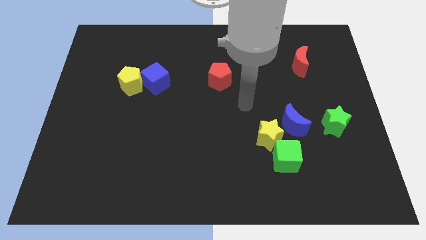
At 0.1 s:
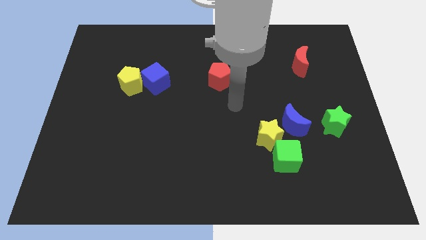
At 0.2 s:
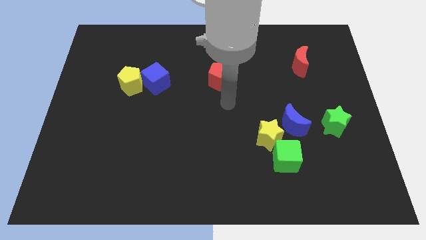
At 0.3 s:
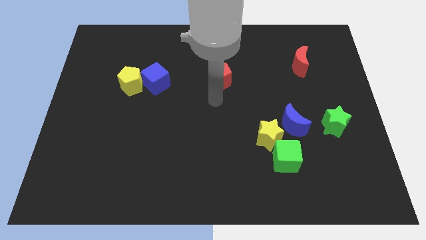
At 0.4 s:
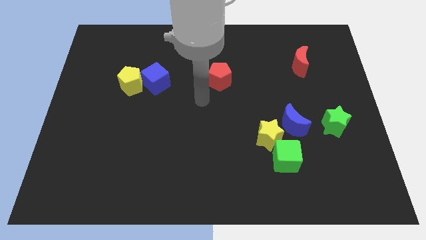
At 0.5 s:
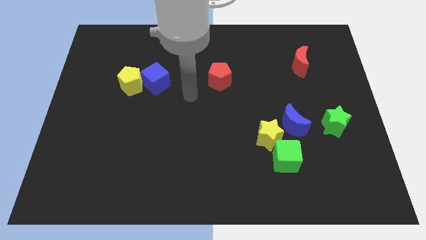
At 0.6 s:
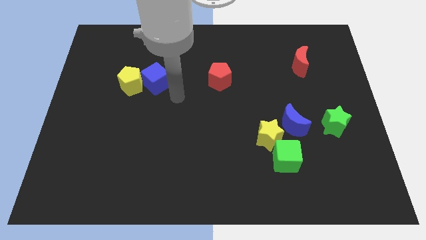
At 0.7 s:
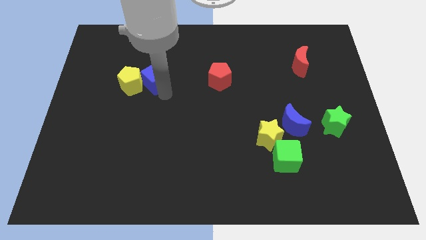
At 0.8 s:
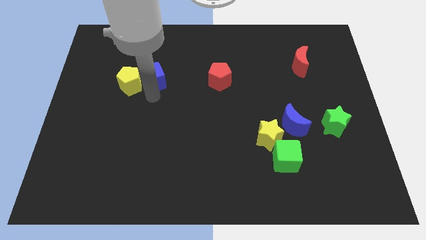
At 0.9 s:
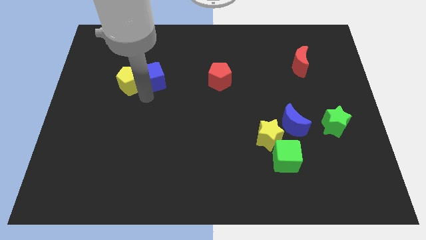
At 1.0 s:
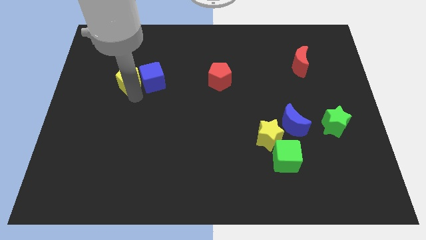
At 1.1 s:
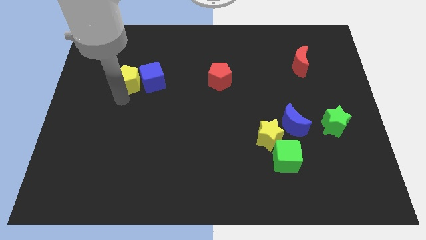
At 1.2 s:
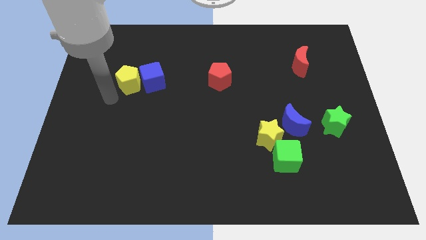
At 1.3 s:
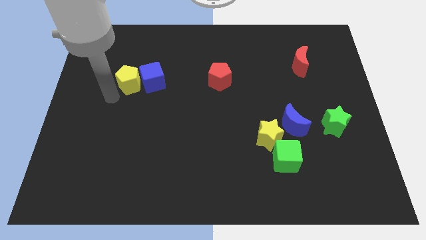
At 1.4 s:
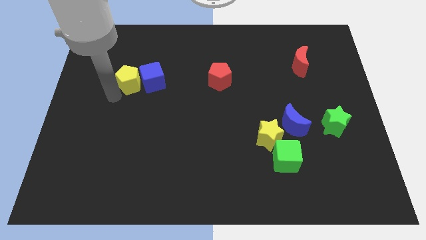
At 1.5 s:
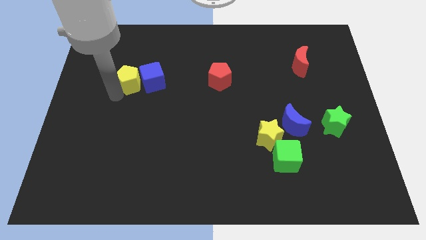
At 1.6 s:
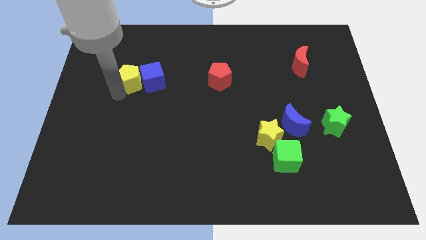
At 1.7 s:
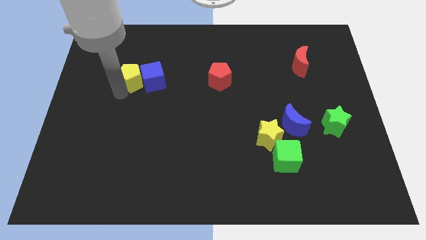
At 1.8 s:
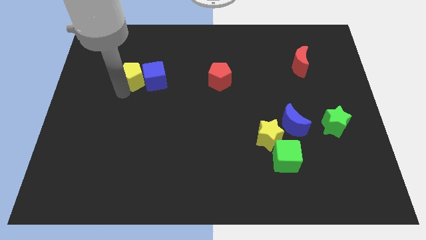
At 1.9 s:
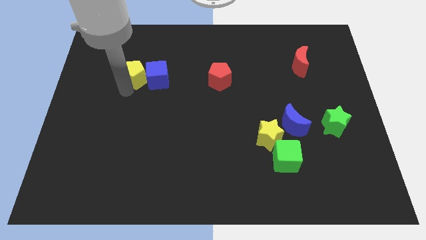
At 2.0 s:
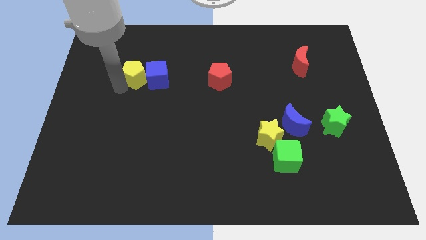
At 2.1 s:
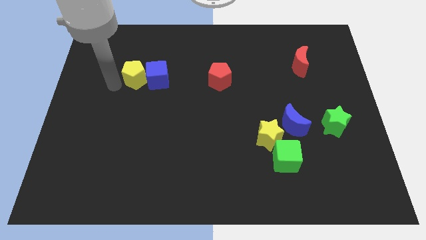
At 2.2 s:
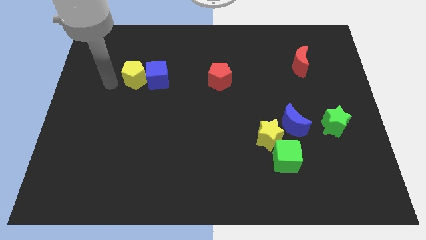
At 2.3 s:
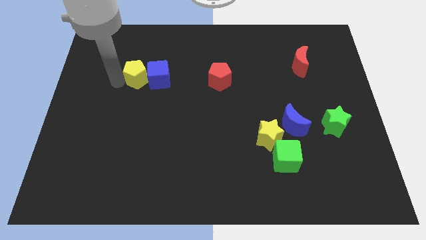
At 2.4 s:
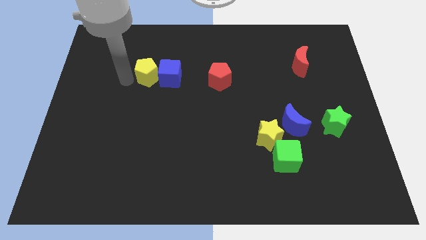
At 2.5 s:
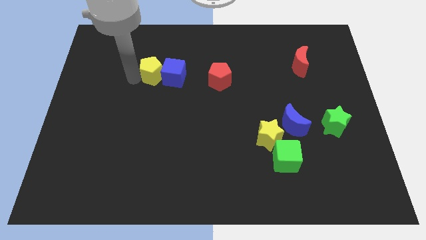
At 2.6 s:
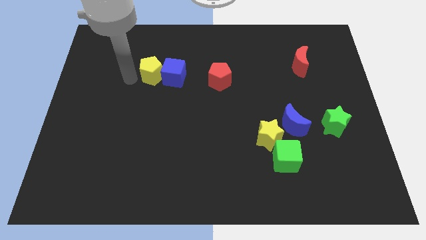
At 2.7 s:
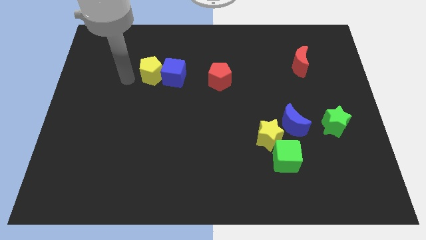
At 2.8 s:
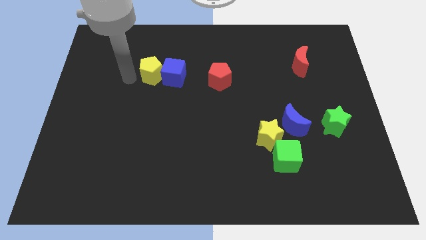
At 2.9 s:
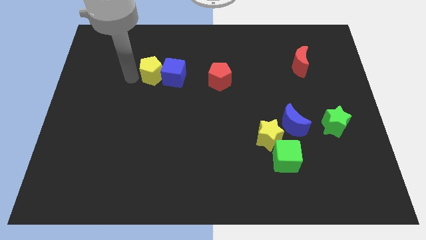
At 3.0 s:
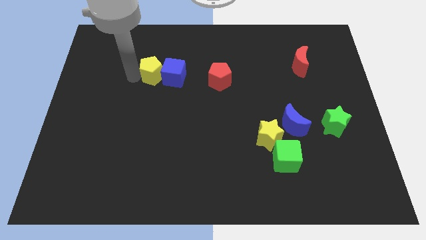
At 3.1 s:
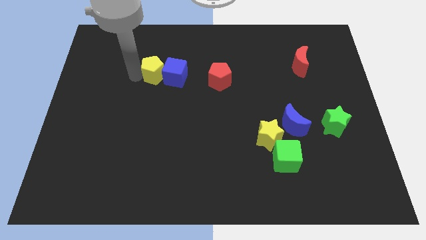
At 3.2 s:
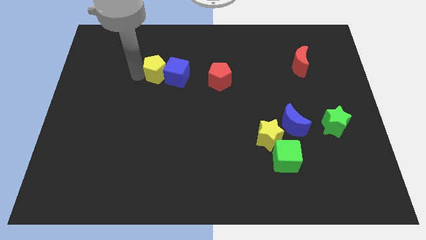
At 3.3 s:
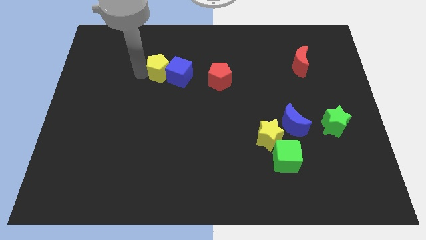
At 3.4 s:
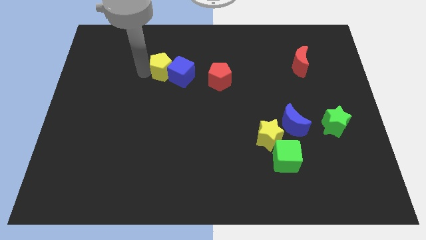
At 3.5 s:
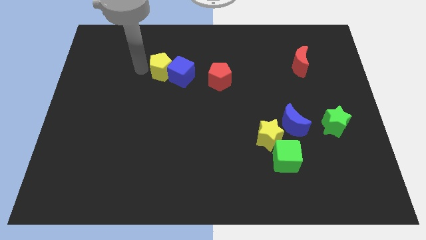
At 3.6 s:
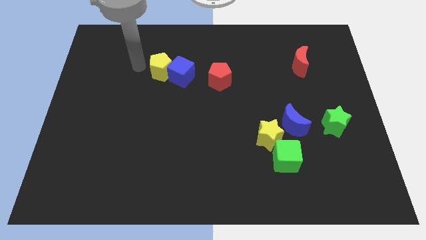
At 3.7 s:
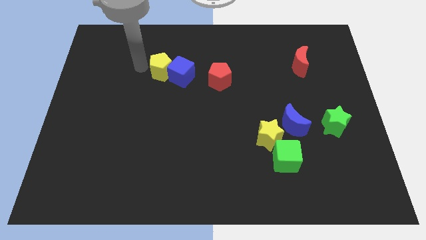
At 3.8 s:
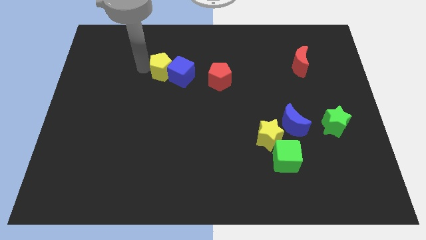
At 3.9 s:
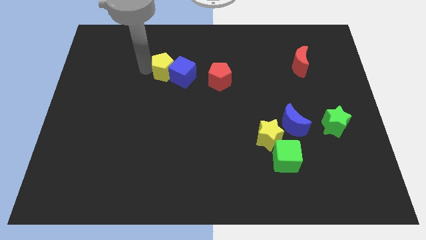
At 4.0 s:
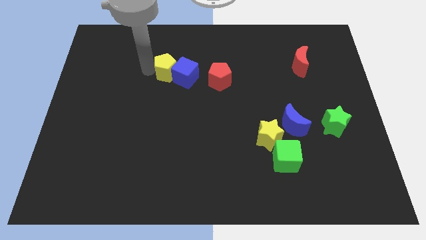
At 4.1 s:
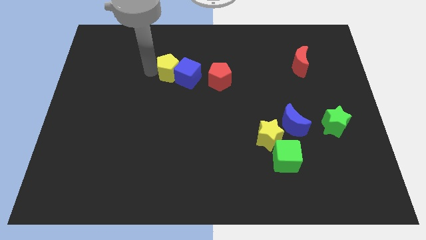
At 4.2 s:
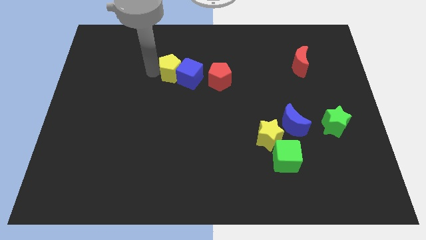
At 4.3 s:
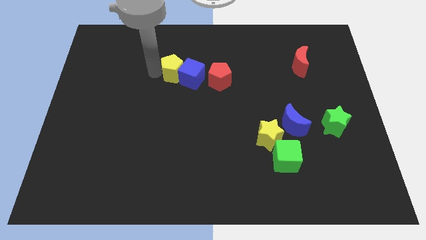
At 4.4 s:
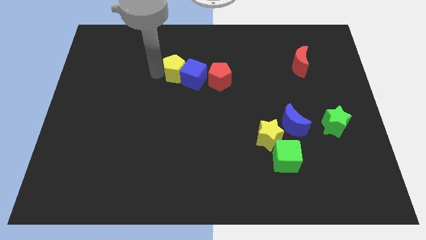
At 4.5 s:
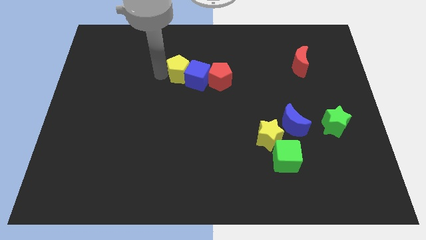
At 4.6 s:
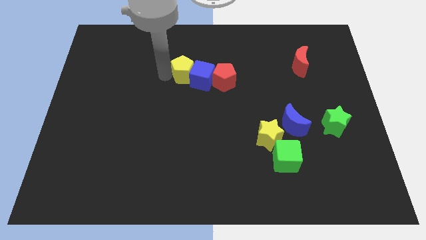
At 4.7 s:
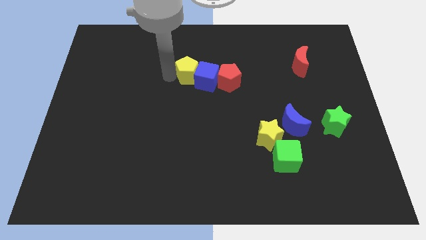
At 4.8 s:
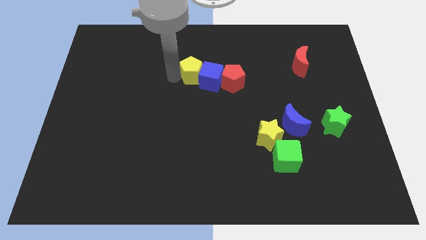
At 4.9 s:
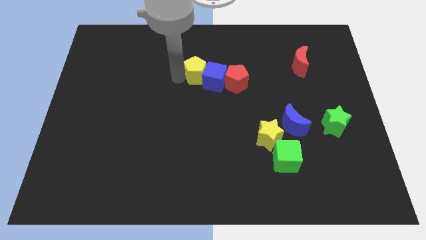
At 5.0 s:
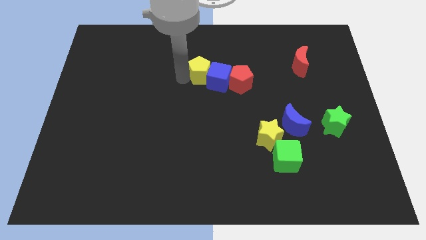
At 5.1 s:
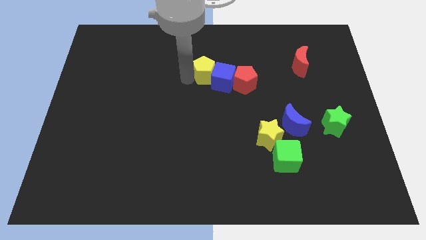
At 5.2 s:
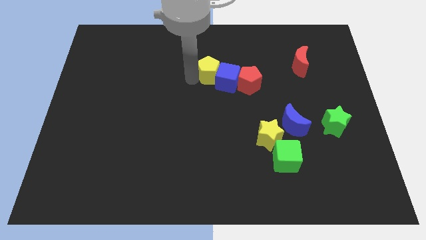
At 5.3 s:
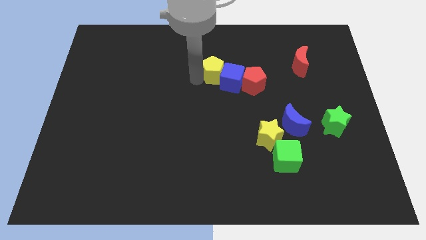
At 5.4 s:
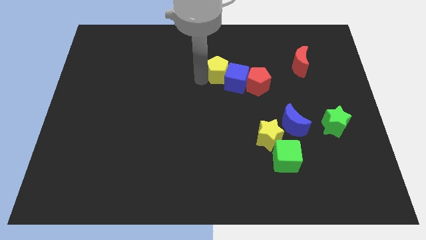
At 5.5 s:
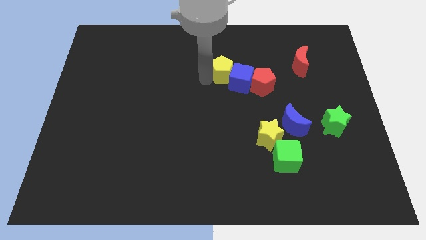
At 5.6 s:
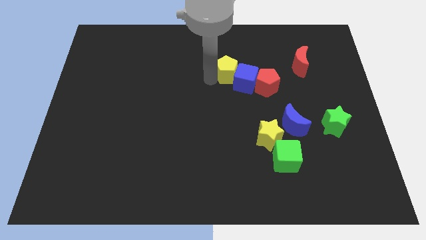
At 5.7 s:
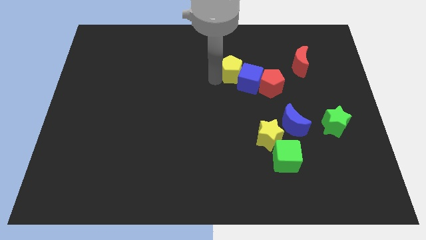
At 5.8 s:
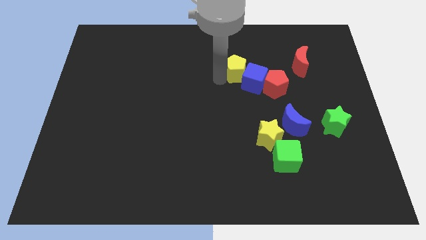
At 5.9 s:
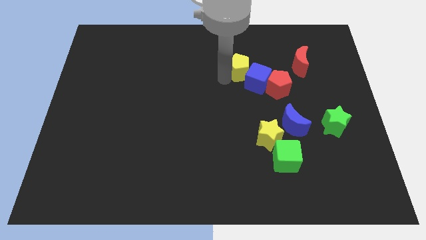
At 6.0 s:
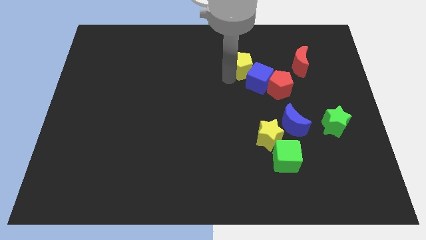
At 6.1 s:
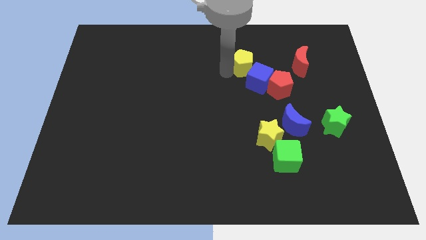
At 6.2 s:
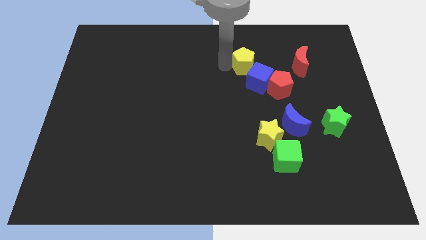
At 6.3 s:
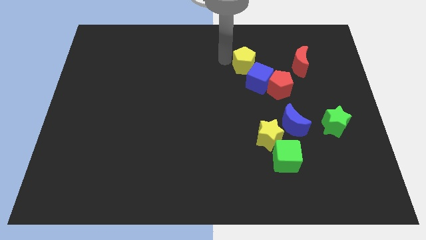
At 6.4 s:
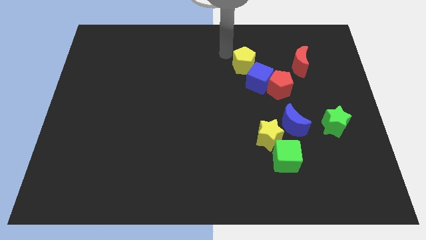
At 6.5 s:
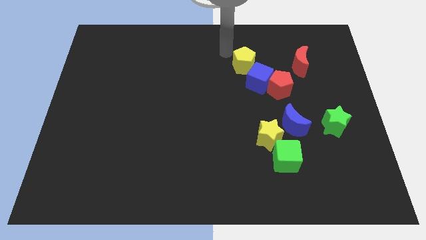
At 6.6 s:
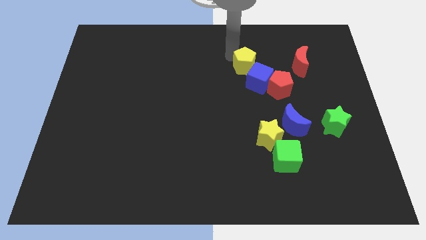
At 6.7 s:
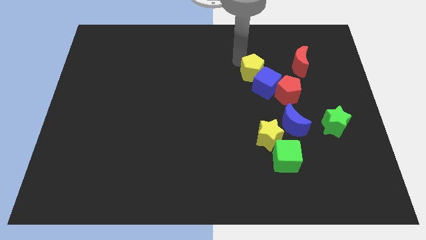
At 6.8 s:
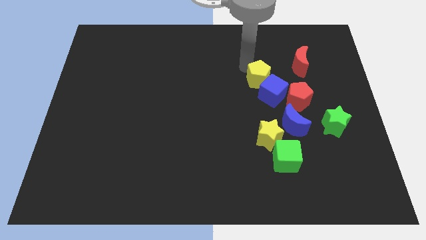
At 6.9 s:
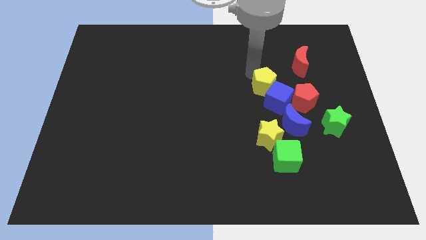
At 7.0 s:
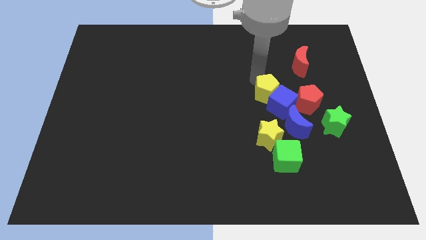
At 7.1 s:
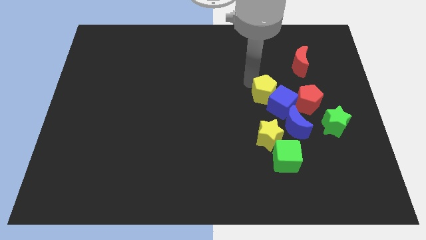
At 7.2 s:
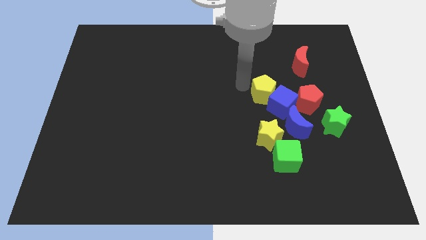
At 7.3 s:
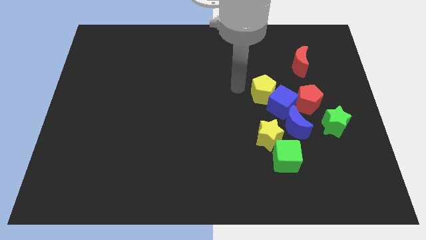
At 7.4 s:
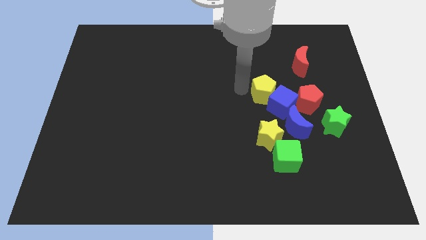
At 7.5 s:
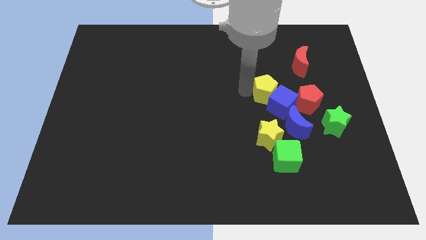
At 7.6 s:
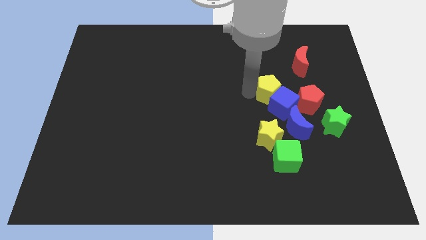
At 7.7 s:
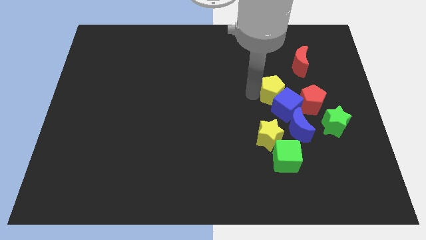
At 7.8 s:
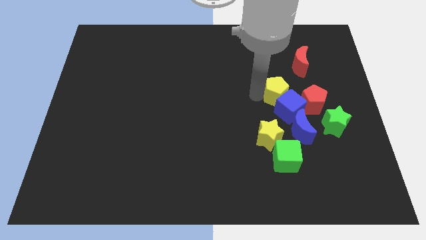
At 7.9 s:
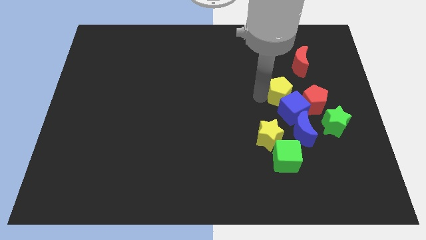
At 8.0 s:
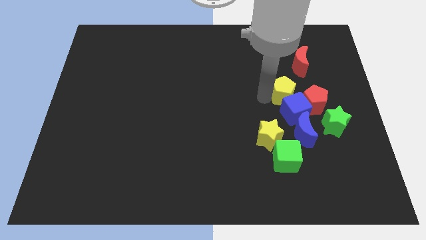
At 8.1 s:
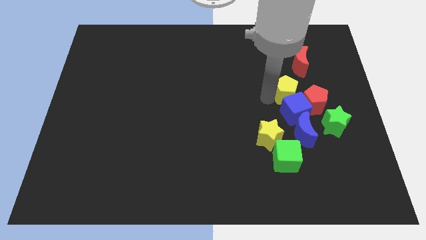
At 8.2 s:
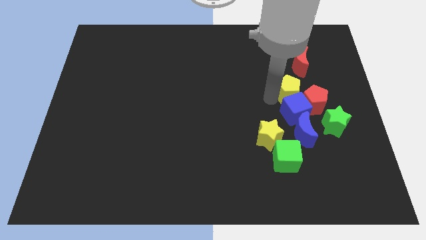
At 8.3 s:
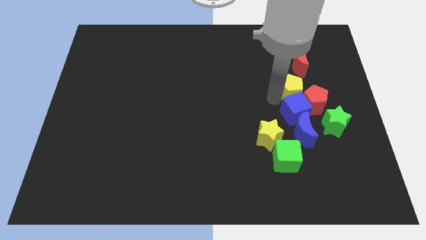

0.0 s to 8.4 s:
move the yellow pentagon next to the red pentagon
